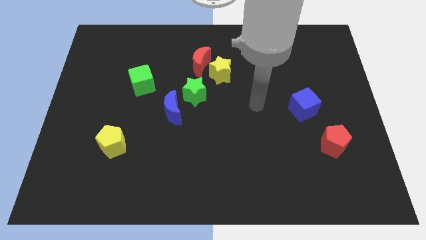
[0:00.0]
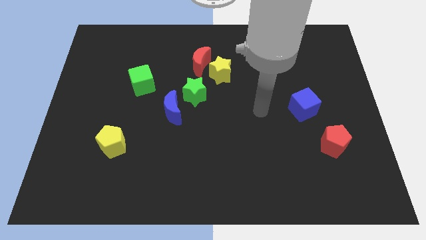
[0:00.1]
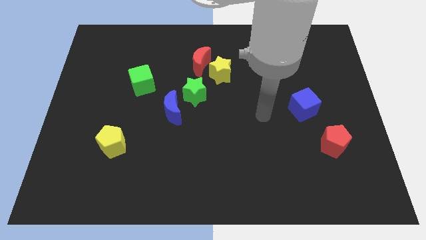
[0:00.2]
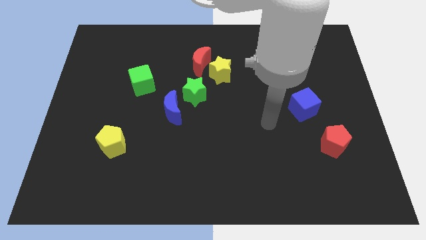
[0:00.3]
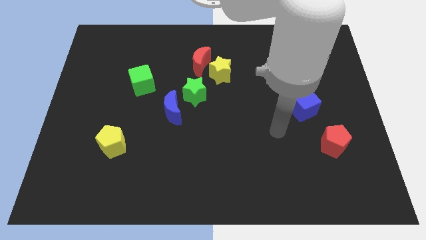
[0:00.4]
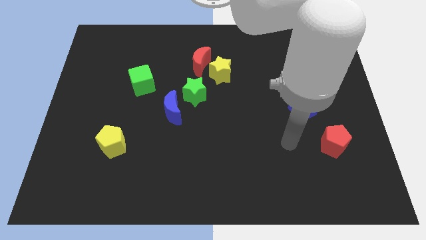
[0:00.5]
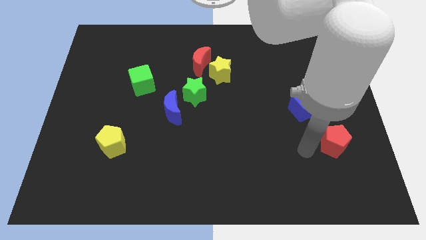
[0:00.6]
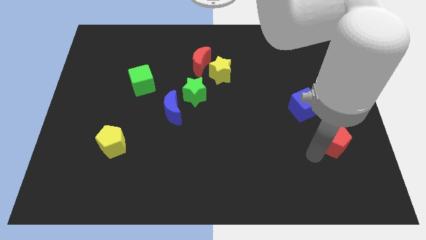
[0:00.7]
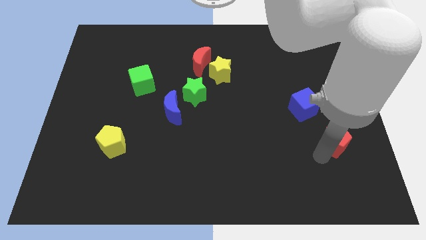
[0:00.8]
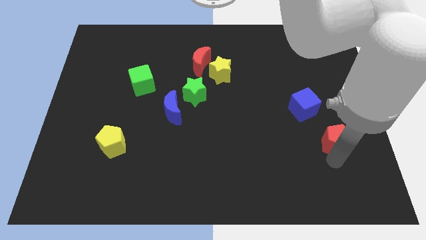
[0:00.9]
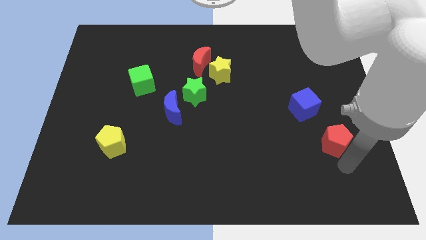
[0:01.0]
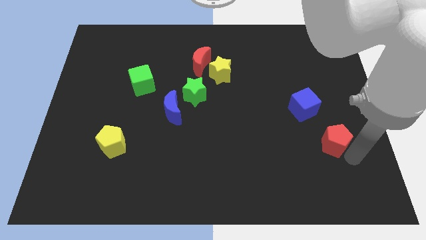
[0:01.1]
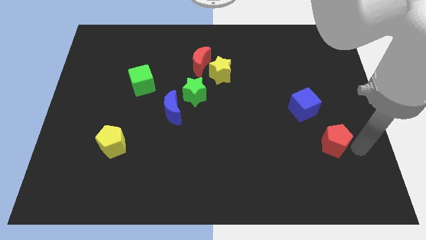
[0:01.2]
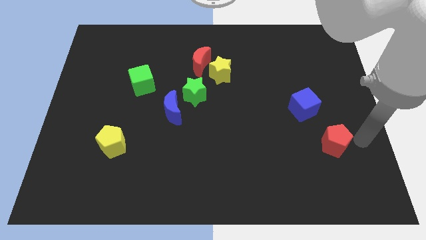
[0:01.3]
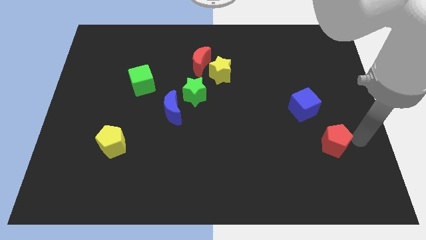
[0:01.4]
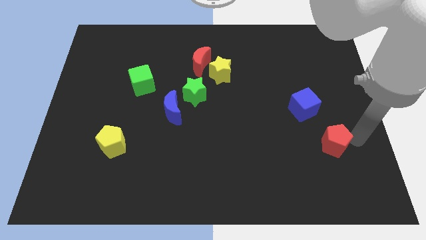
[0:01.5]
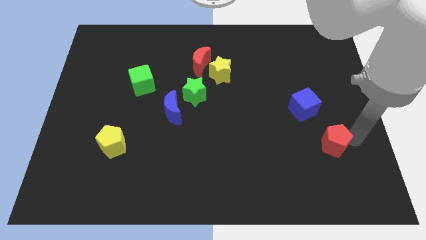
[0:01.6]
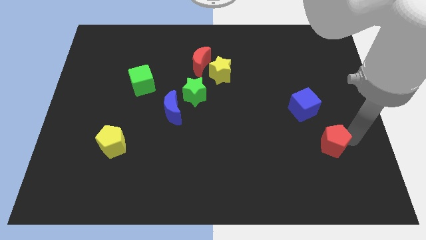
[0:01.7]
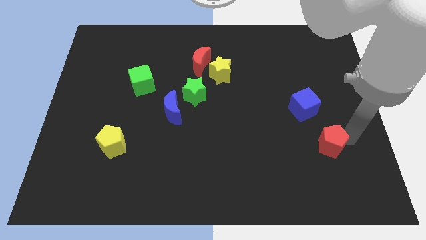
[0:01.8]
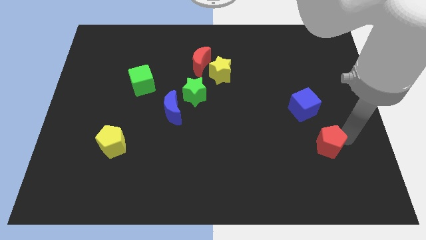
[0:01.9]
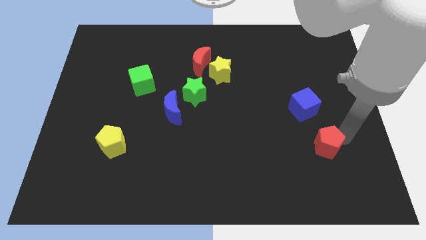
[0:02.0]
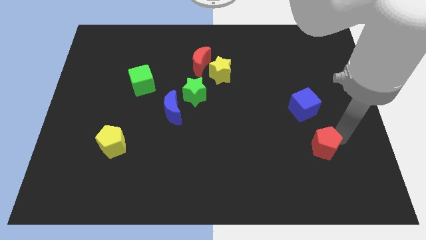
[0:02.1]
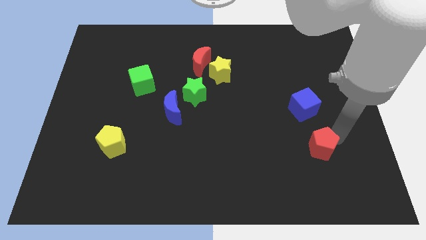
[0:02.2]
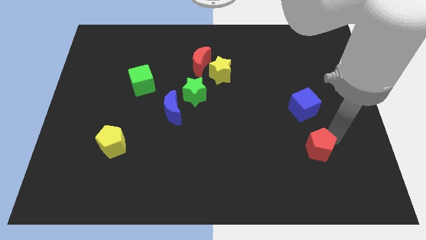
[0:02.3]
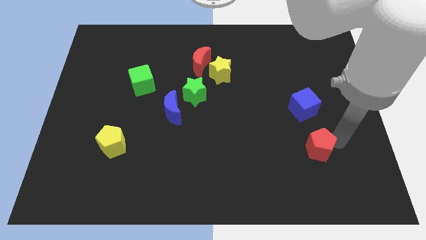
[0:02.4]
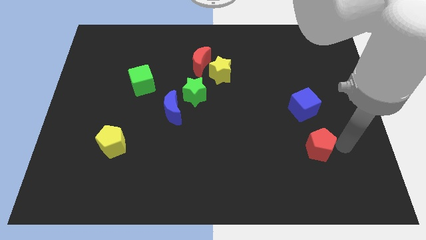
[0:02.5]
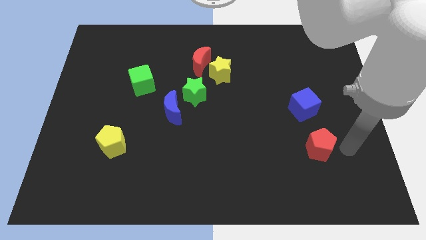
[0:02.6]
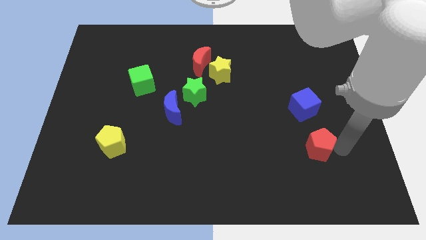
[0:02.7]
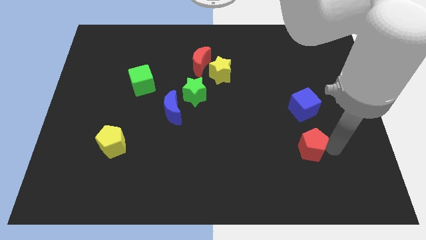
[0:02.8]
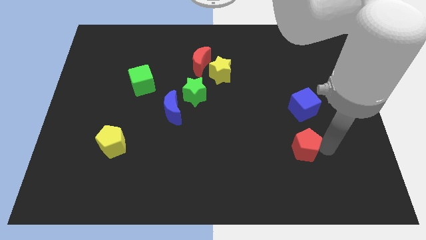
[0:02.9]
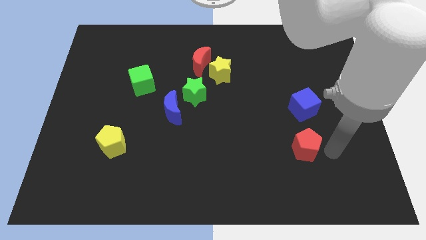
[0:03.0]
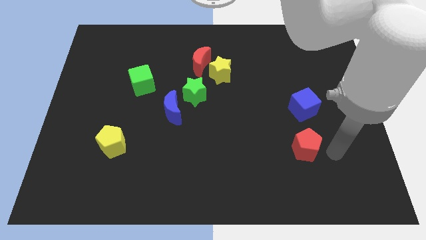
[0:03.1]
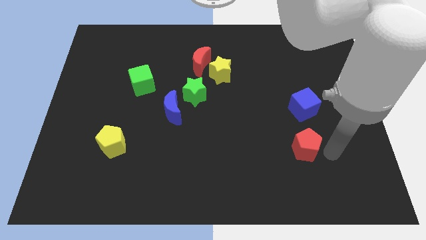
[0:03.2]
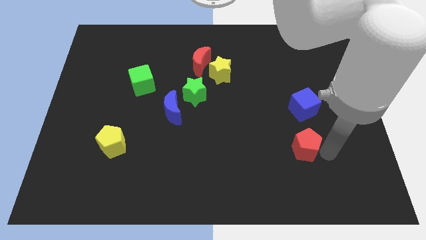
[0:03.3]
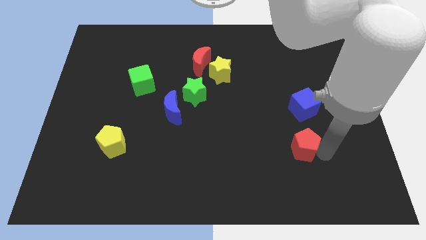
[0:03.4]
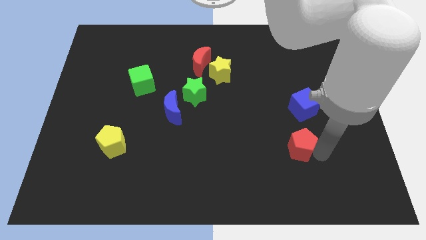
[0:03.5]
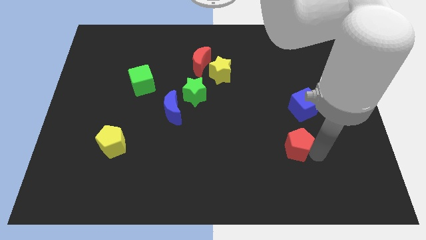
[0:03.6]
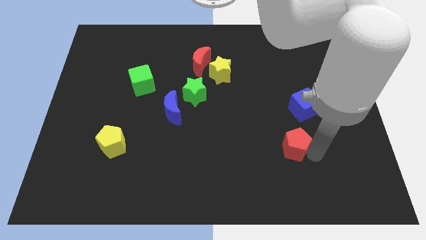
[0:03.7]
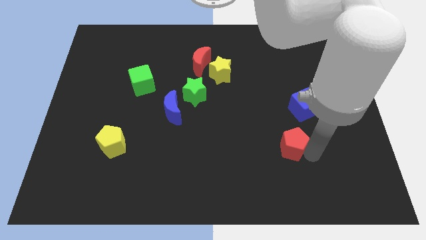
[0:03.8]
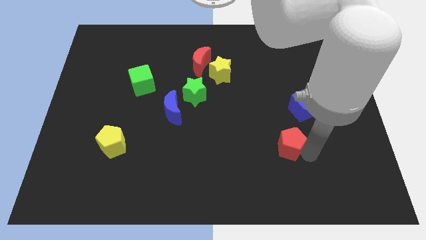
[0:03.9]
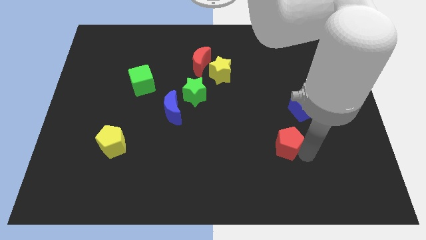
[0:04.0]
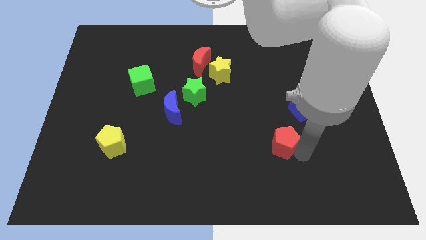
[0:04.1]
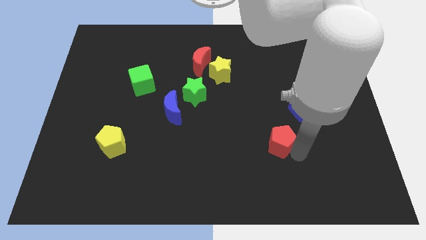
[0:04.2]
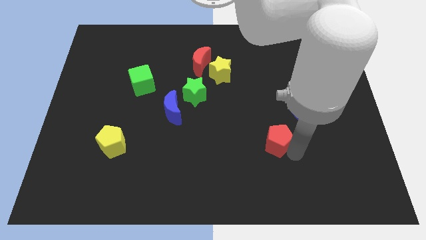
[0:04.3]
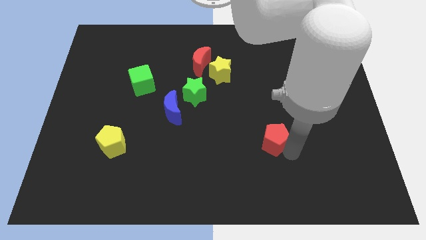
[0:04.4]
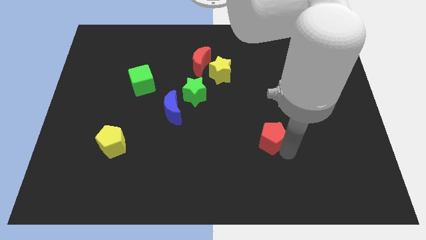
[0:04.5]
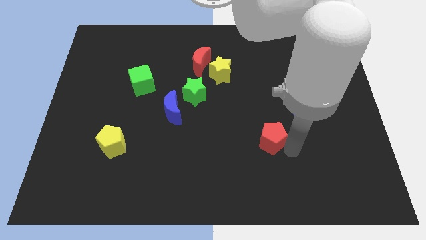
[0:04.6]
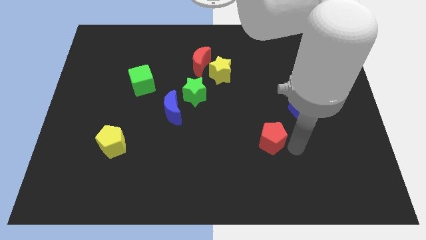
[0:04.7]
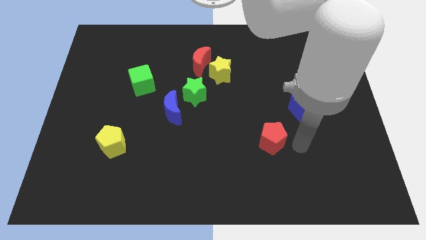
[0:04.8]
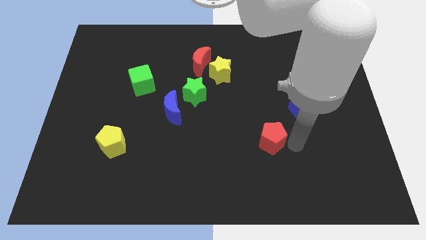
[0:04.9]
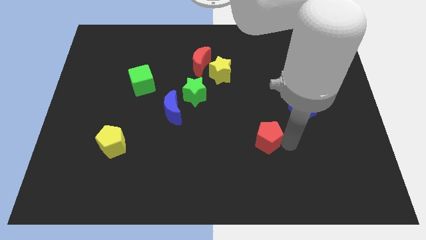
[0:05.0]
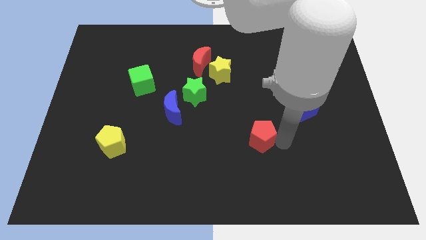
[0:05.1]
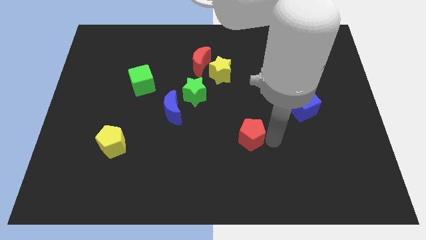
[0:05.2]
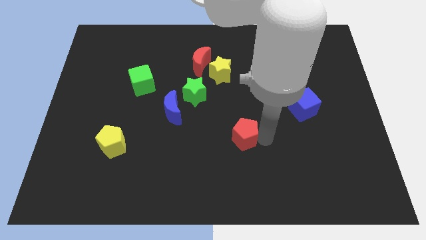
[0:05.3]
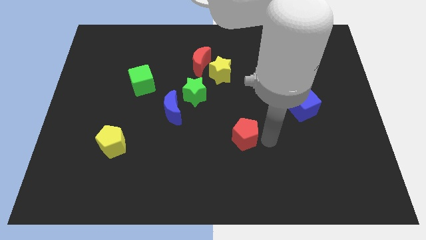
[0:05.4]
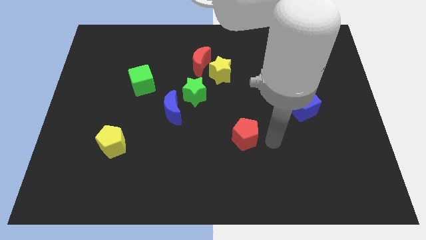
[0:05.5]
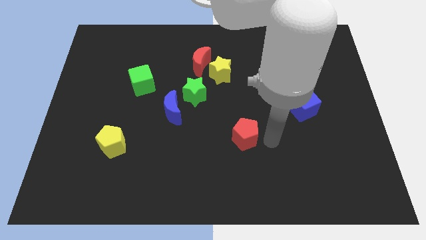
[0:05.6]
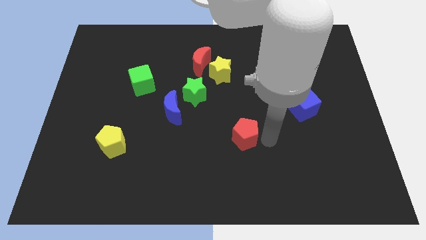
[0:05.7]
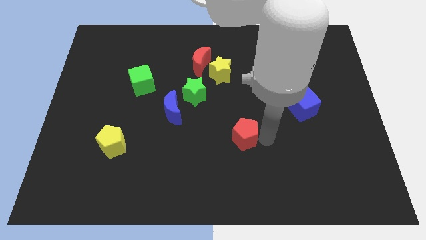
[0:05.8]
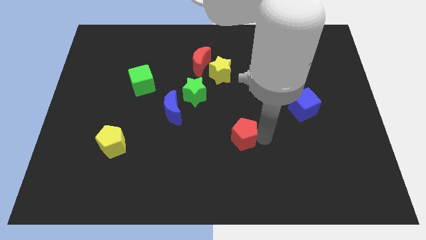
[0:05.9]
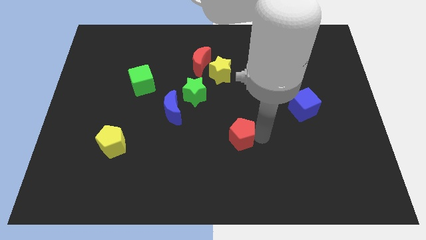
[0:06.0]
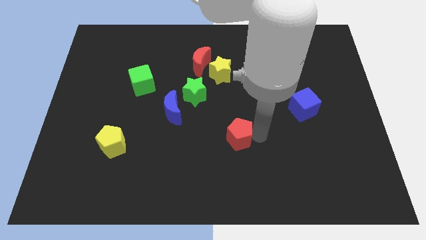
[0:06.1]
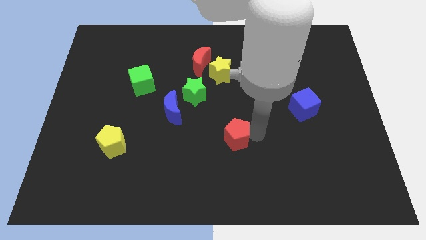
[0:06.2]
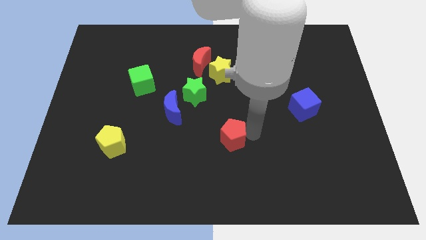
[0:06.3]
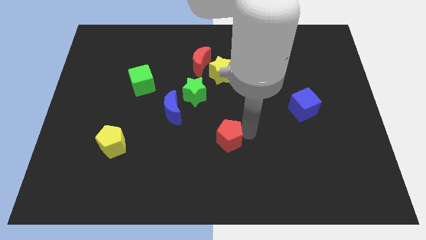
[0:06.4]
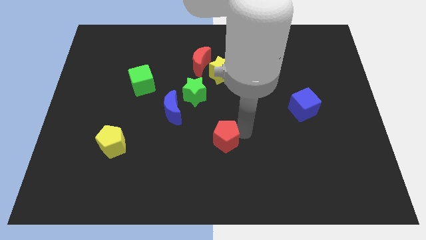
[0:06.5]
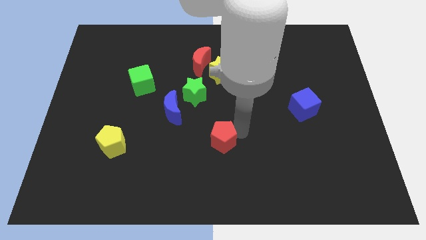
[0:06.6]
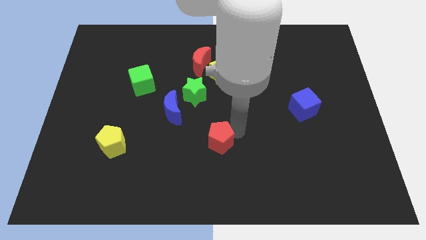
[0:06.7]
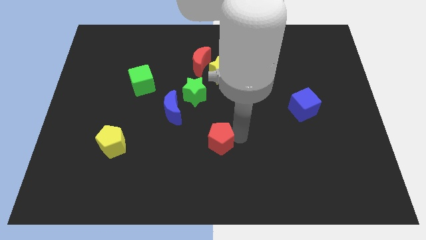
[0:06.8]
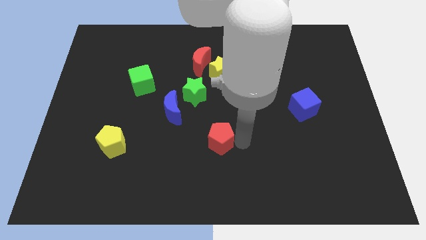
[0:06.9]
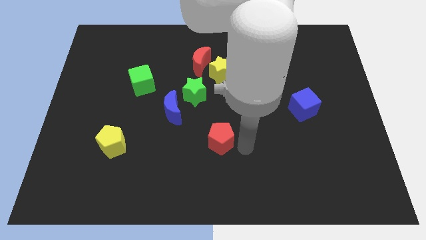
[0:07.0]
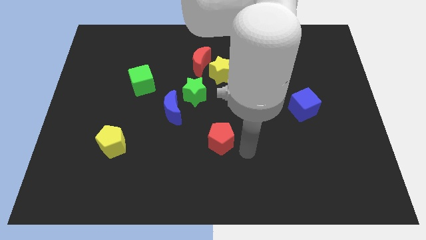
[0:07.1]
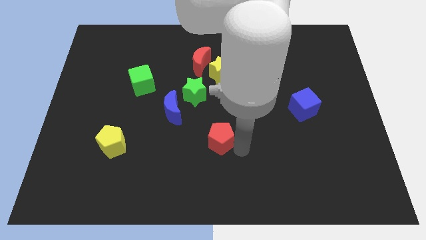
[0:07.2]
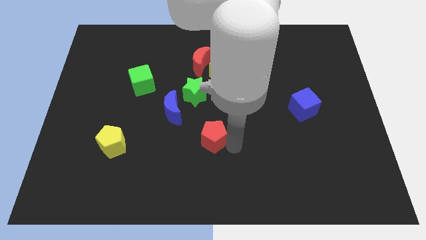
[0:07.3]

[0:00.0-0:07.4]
move the red pentagon to the bottom side of the green star
